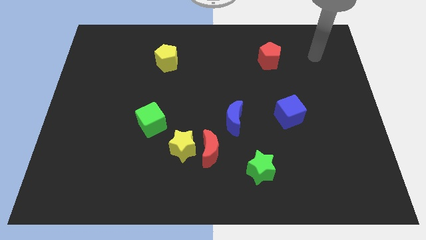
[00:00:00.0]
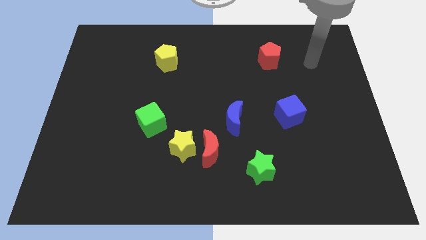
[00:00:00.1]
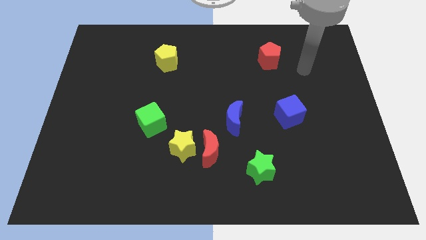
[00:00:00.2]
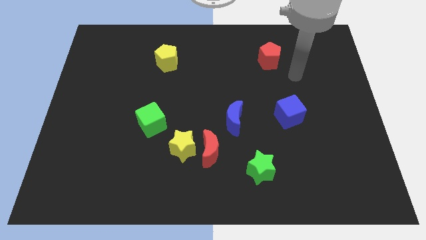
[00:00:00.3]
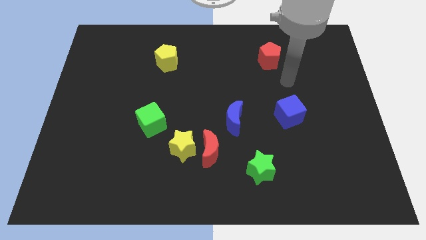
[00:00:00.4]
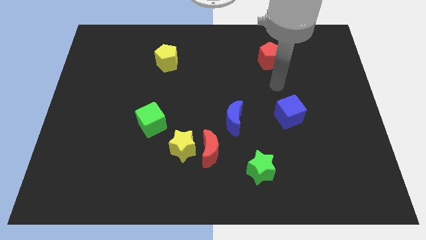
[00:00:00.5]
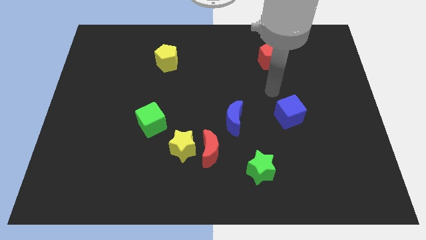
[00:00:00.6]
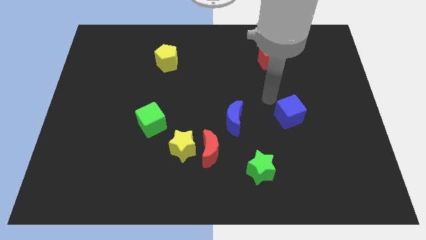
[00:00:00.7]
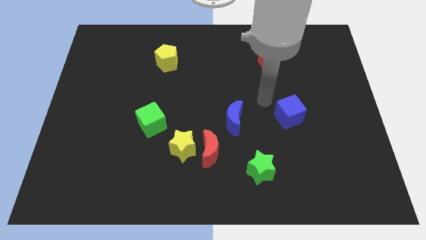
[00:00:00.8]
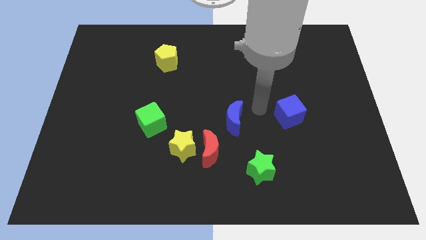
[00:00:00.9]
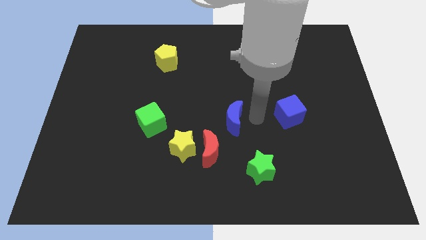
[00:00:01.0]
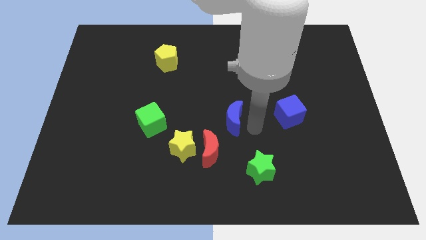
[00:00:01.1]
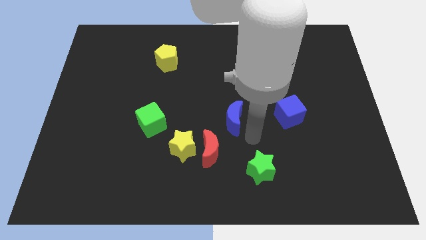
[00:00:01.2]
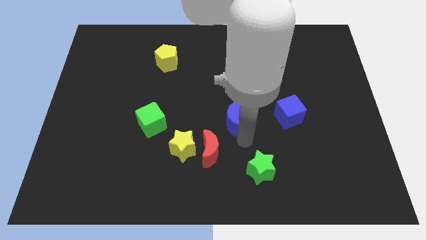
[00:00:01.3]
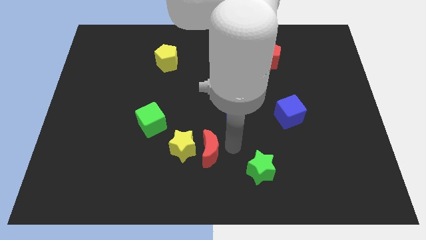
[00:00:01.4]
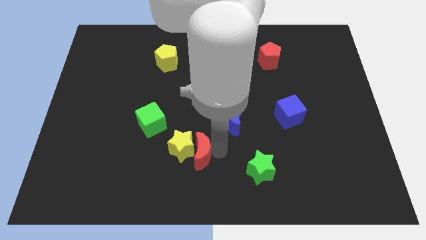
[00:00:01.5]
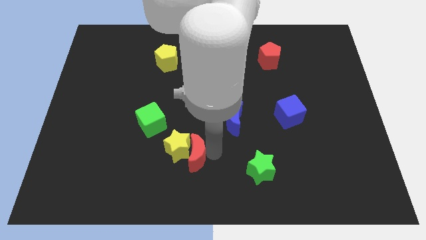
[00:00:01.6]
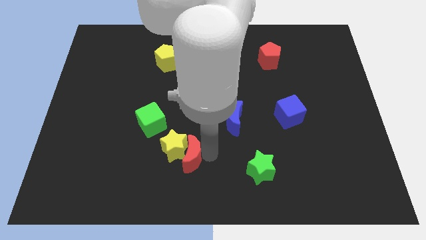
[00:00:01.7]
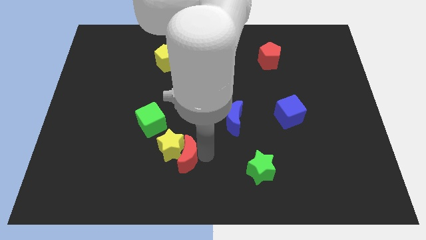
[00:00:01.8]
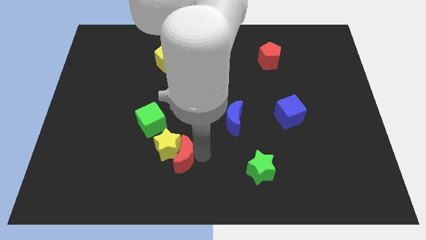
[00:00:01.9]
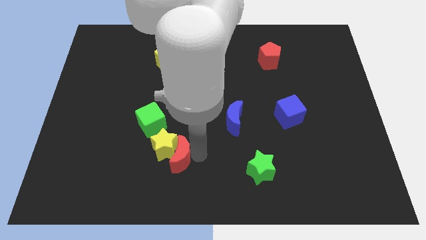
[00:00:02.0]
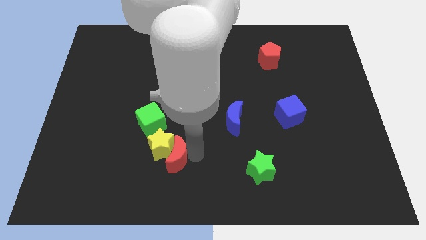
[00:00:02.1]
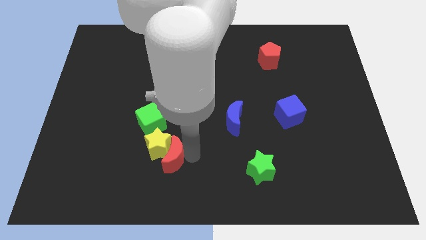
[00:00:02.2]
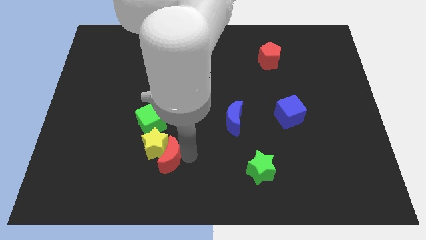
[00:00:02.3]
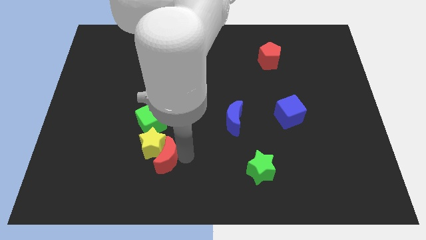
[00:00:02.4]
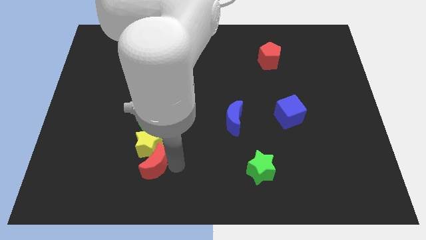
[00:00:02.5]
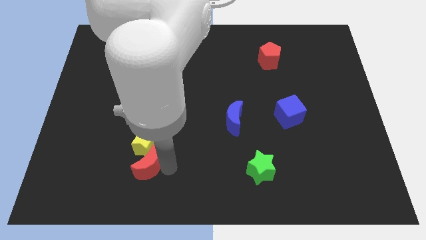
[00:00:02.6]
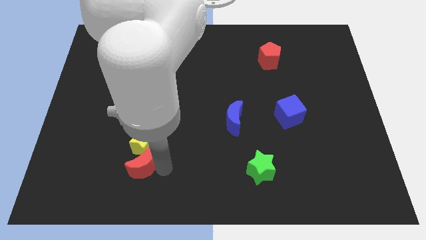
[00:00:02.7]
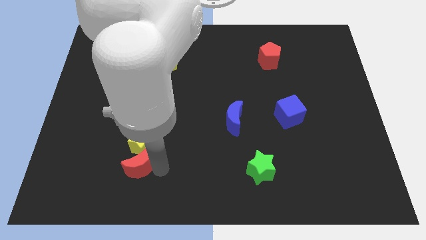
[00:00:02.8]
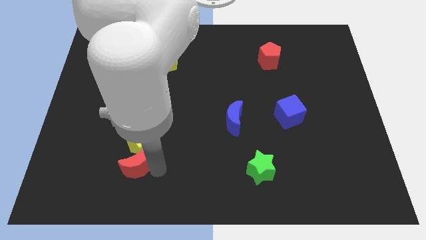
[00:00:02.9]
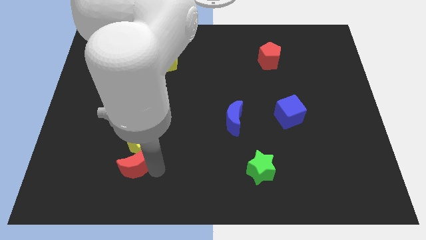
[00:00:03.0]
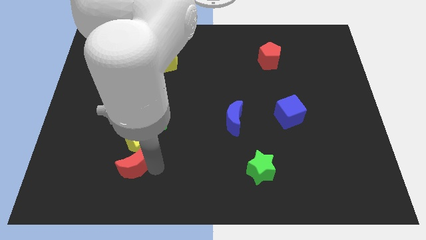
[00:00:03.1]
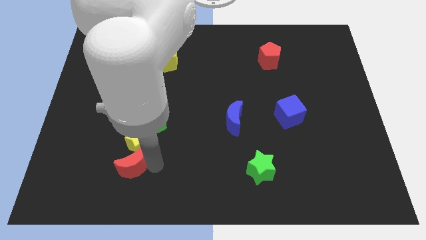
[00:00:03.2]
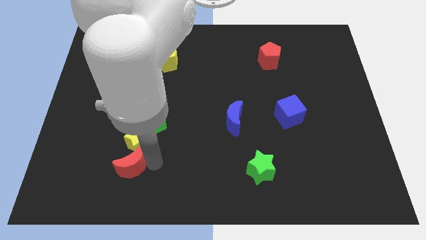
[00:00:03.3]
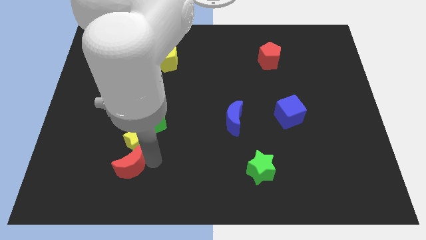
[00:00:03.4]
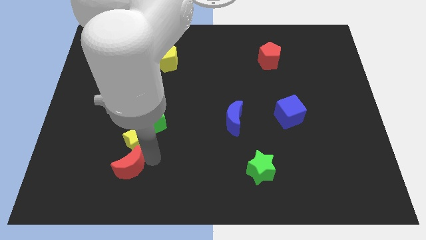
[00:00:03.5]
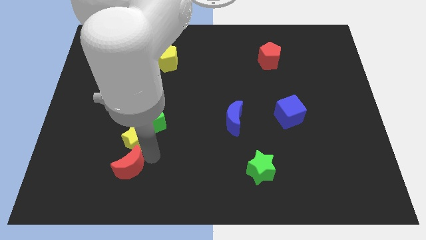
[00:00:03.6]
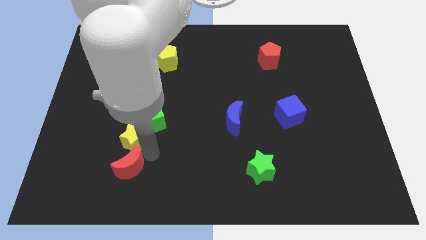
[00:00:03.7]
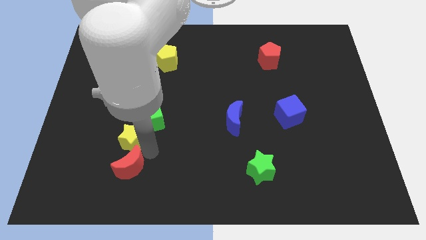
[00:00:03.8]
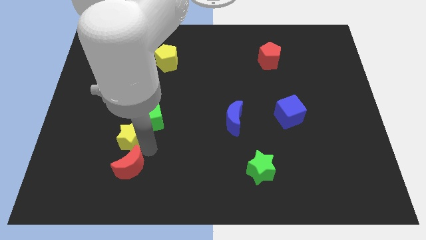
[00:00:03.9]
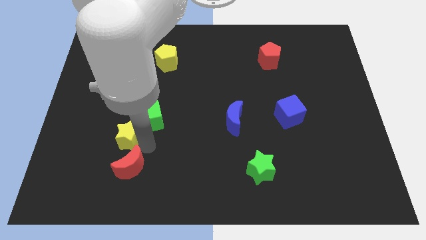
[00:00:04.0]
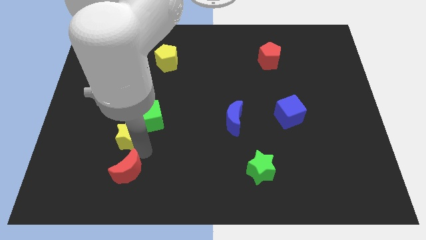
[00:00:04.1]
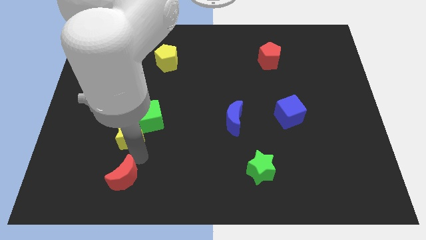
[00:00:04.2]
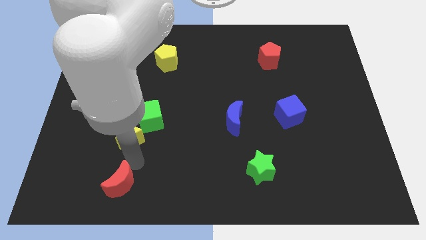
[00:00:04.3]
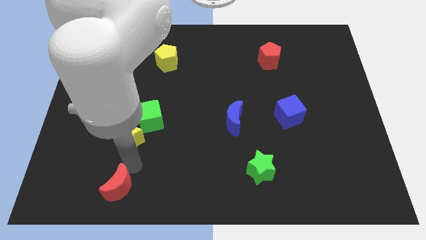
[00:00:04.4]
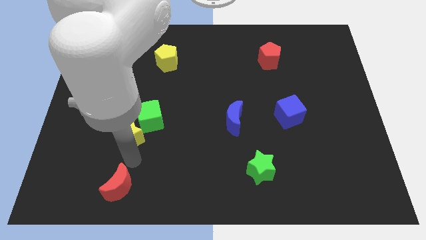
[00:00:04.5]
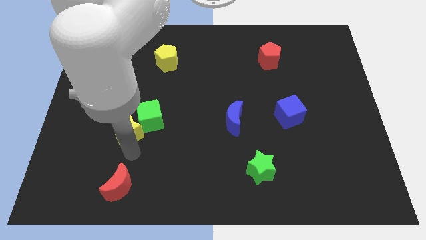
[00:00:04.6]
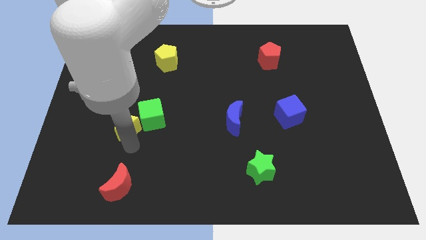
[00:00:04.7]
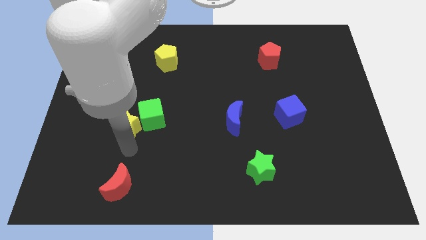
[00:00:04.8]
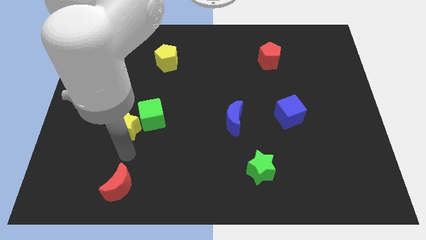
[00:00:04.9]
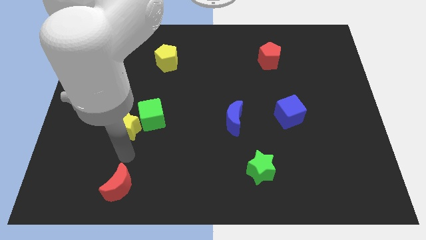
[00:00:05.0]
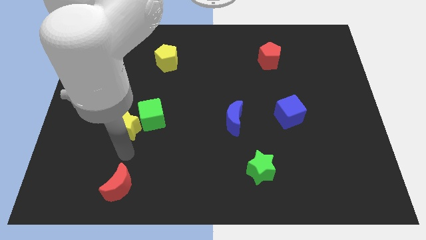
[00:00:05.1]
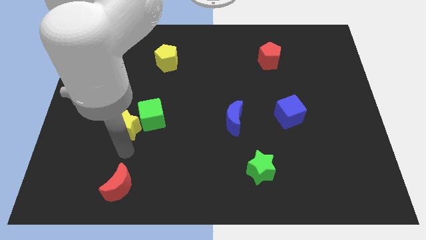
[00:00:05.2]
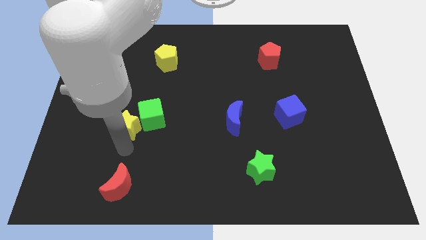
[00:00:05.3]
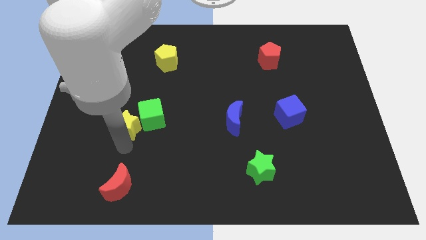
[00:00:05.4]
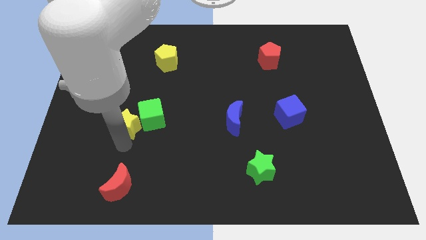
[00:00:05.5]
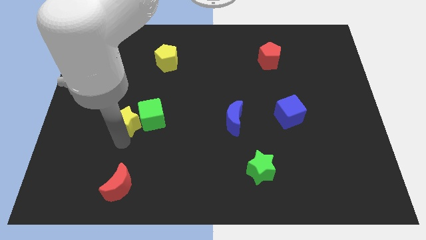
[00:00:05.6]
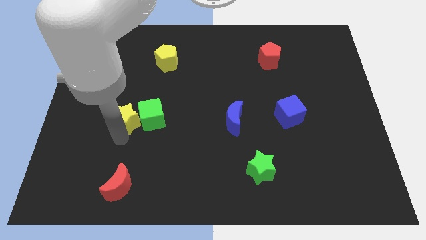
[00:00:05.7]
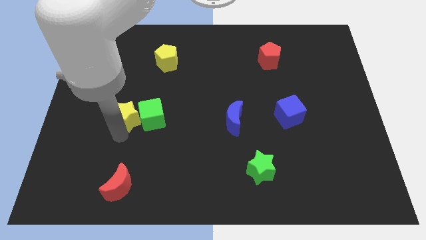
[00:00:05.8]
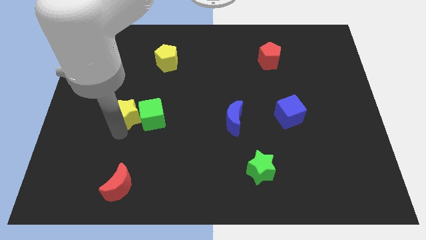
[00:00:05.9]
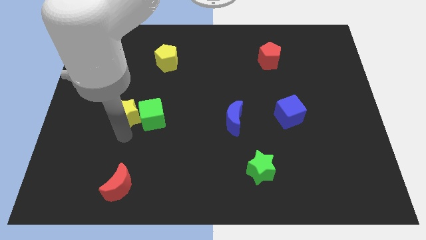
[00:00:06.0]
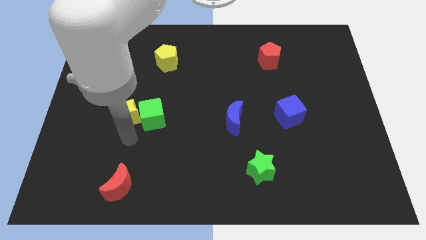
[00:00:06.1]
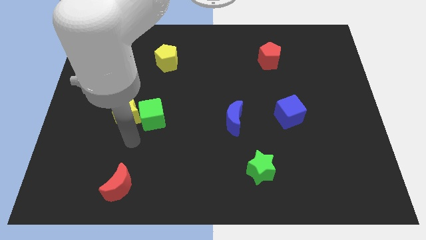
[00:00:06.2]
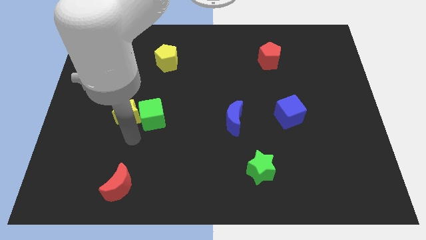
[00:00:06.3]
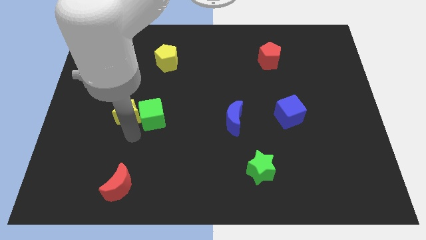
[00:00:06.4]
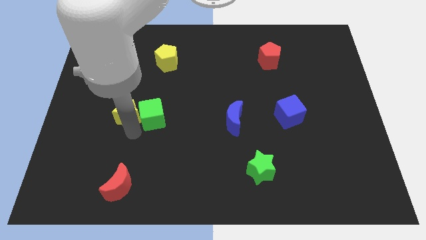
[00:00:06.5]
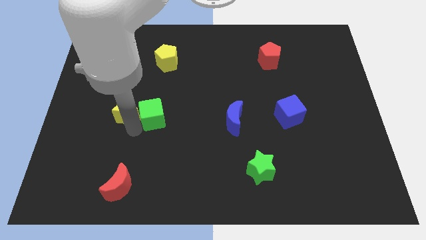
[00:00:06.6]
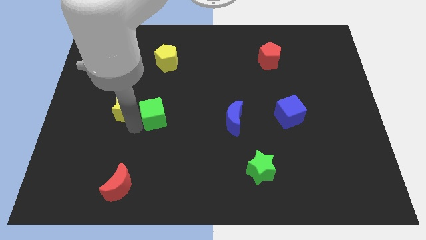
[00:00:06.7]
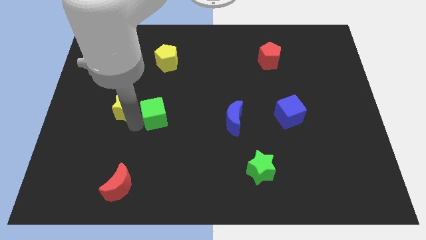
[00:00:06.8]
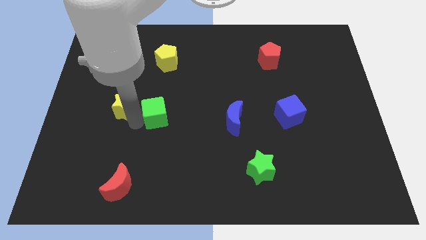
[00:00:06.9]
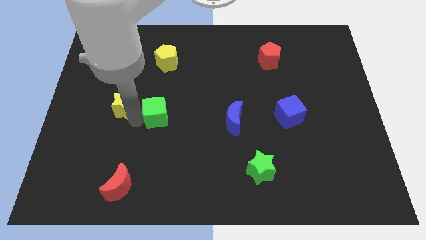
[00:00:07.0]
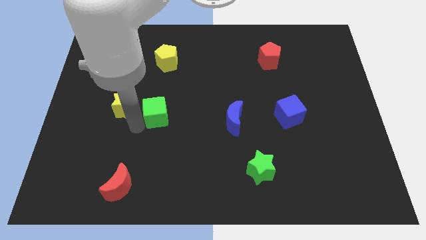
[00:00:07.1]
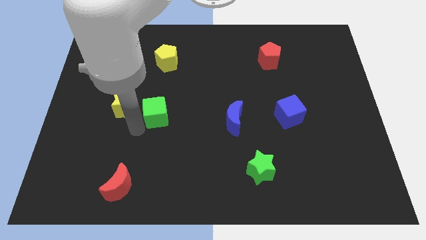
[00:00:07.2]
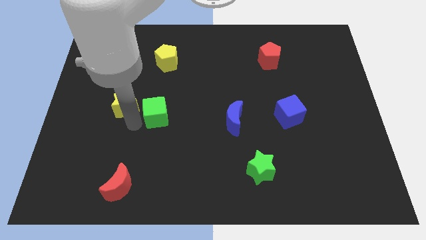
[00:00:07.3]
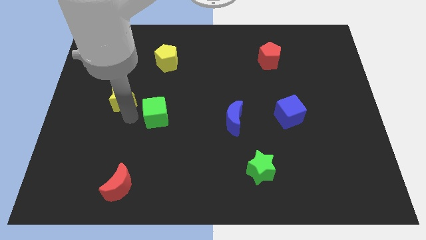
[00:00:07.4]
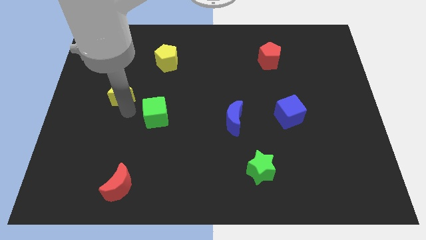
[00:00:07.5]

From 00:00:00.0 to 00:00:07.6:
slide the yellow star upwards and to the left diagonally
